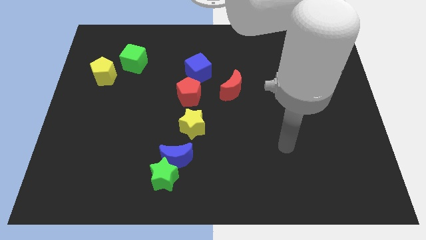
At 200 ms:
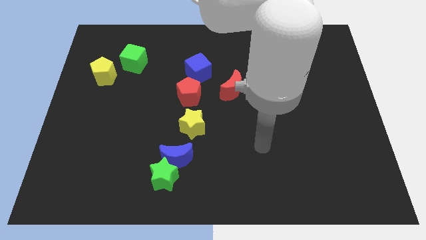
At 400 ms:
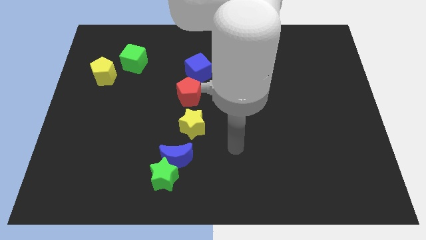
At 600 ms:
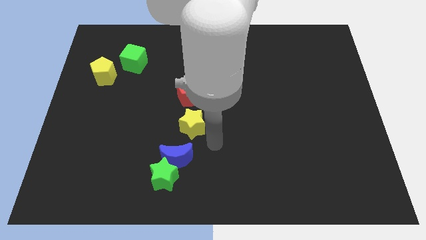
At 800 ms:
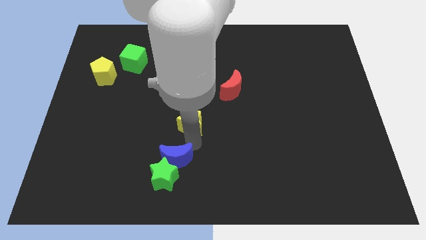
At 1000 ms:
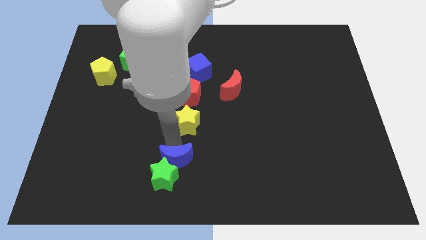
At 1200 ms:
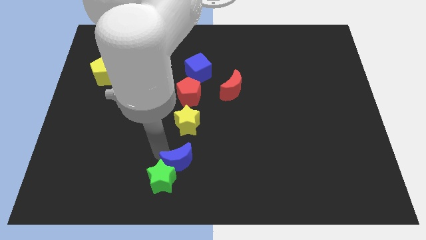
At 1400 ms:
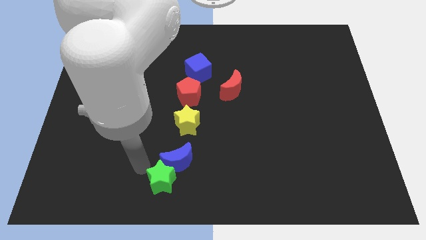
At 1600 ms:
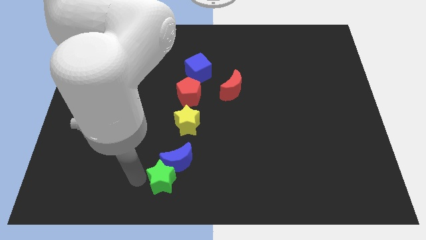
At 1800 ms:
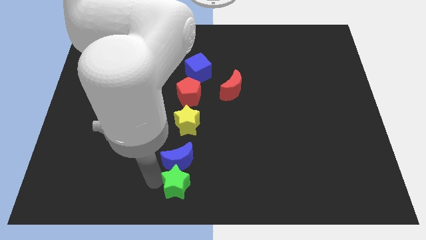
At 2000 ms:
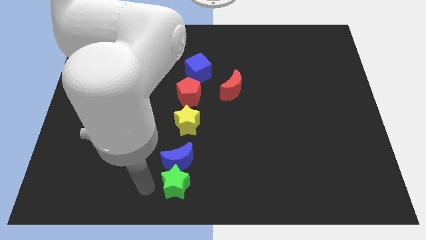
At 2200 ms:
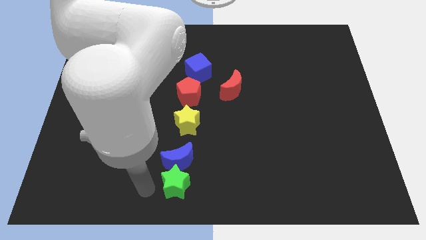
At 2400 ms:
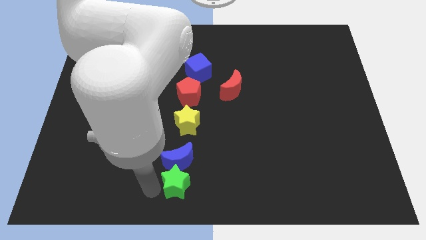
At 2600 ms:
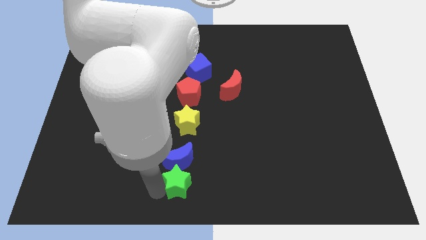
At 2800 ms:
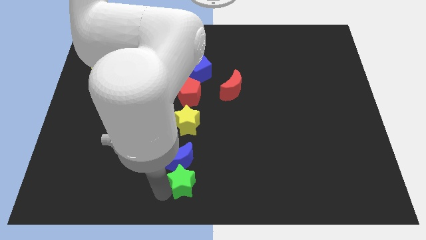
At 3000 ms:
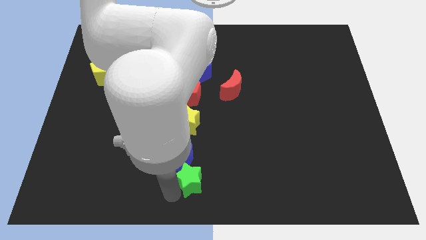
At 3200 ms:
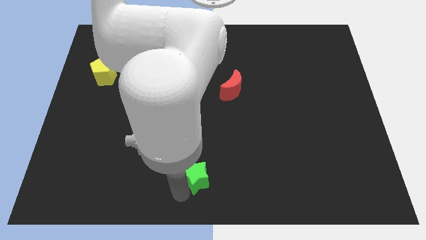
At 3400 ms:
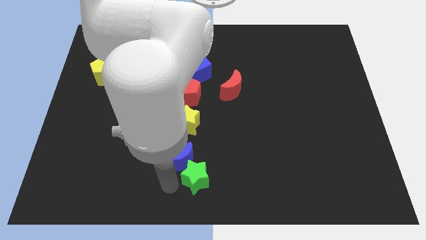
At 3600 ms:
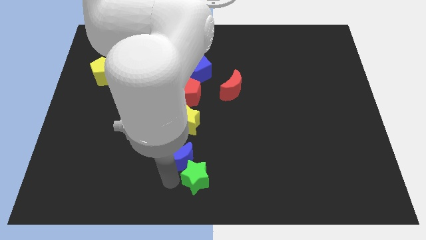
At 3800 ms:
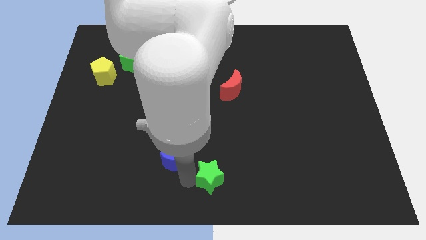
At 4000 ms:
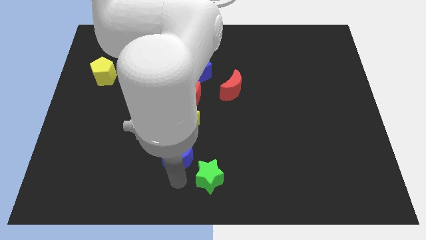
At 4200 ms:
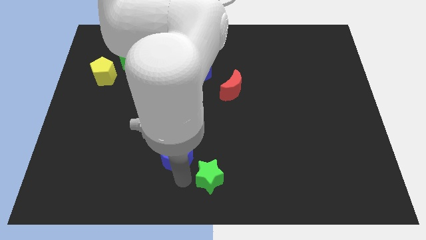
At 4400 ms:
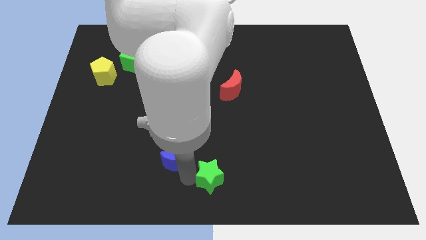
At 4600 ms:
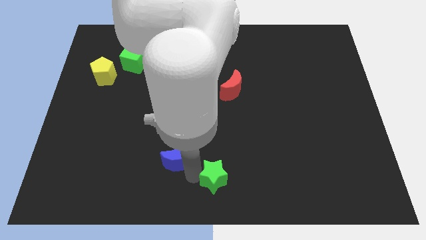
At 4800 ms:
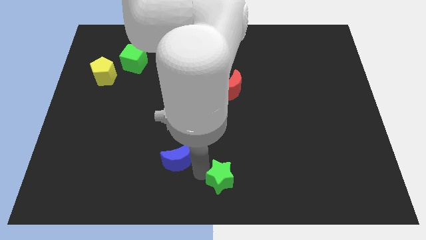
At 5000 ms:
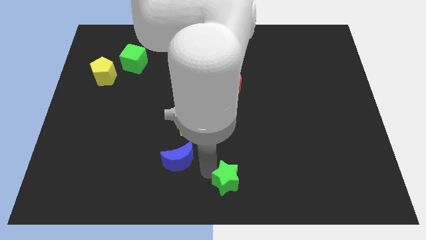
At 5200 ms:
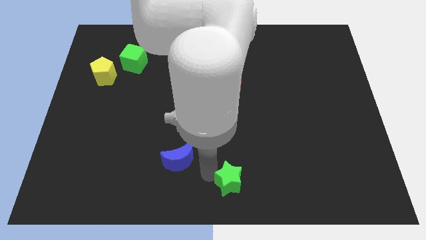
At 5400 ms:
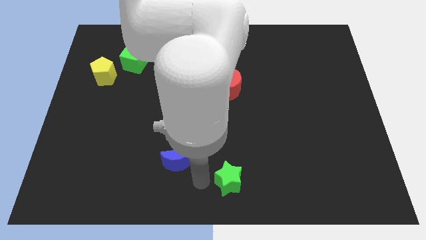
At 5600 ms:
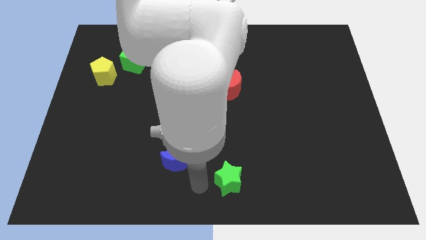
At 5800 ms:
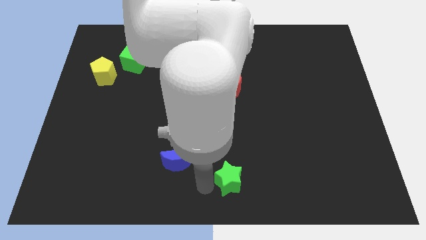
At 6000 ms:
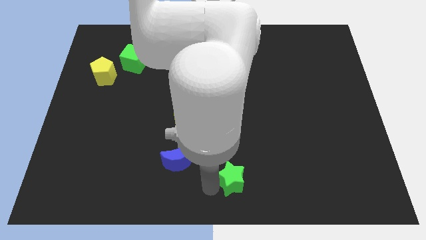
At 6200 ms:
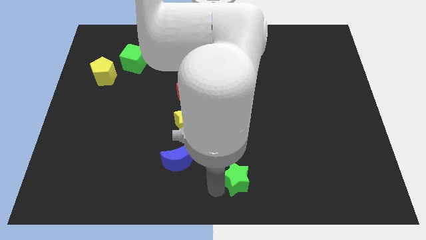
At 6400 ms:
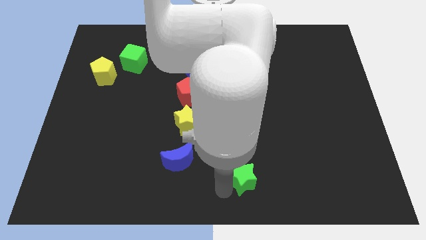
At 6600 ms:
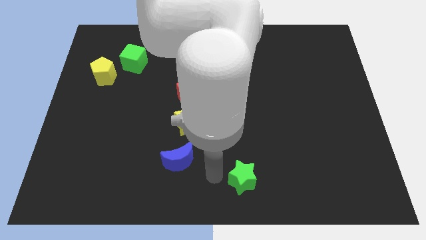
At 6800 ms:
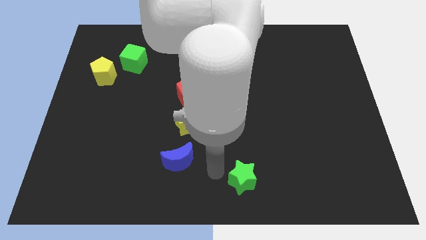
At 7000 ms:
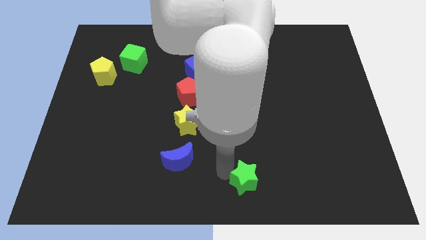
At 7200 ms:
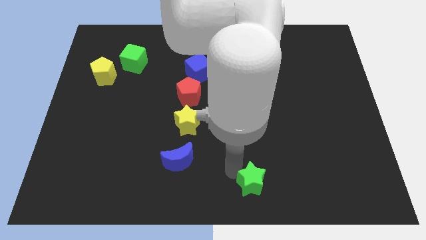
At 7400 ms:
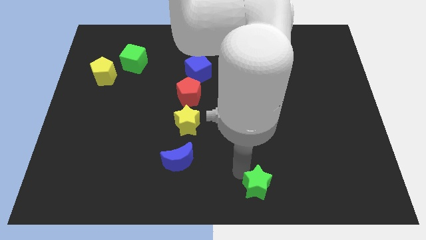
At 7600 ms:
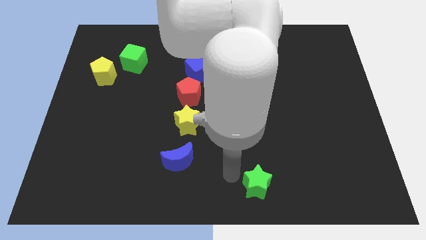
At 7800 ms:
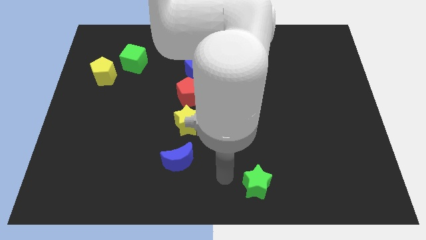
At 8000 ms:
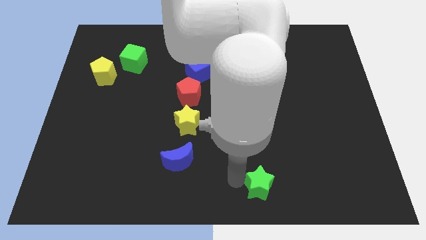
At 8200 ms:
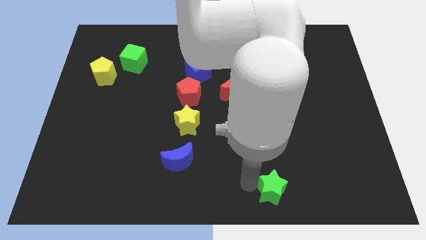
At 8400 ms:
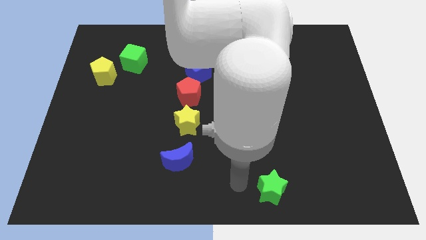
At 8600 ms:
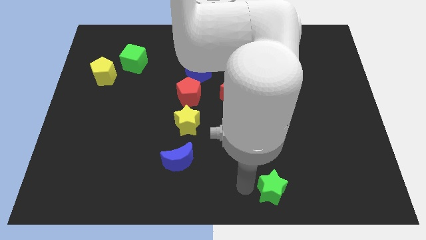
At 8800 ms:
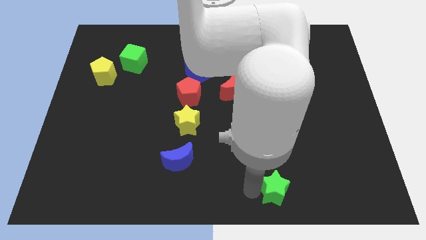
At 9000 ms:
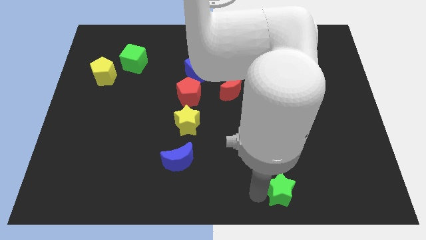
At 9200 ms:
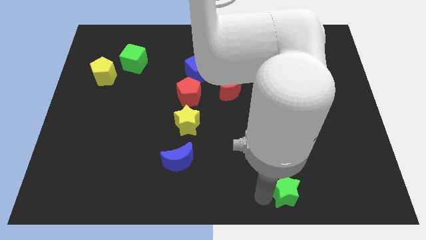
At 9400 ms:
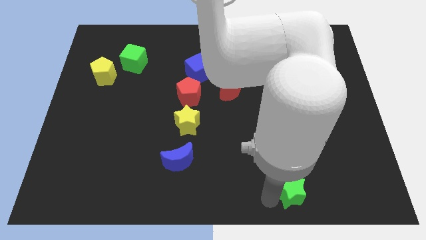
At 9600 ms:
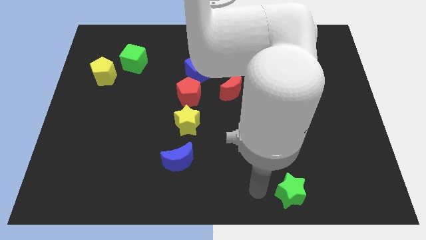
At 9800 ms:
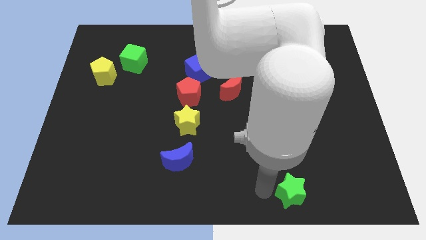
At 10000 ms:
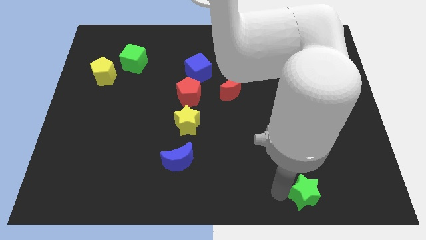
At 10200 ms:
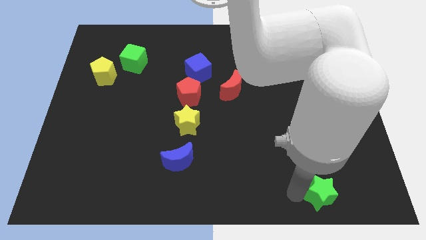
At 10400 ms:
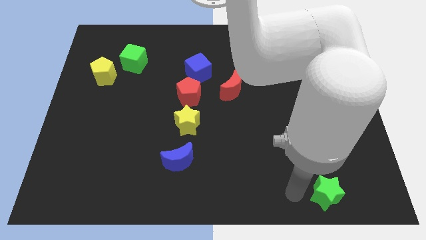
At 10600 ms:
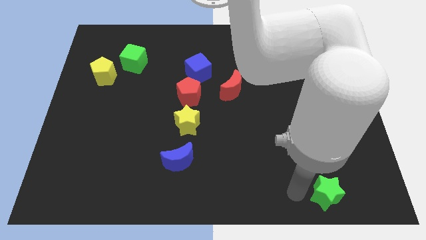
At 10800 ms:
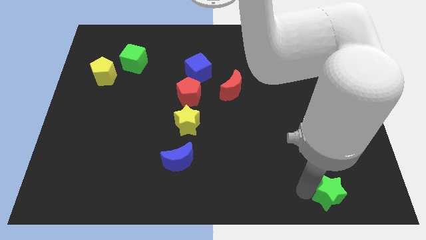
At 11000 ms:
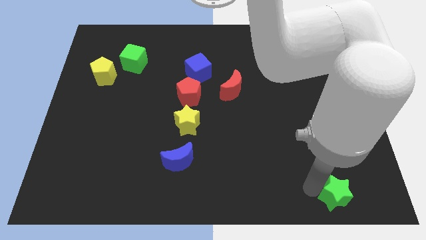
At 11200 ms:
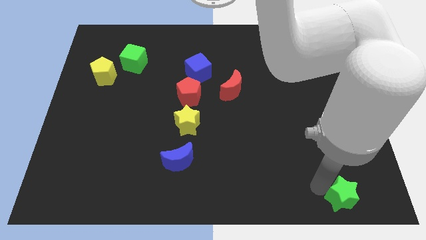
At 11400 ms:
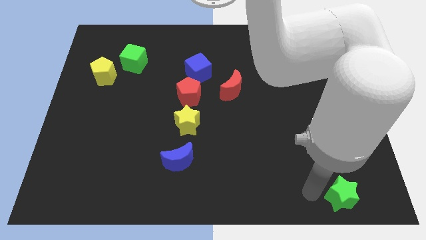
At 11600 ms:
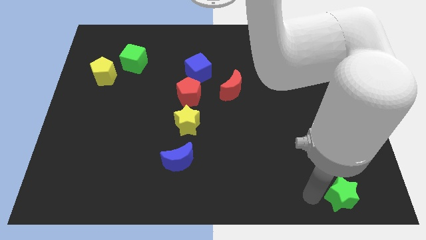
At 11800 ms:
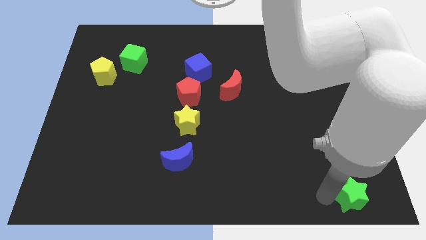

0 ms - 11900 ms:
push the green star to the bottom right of the board
